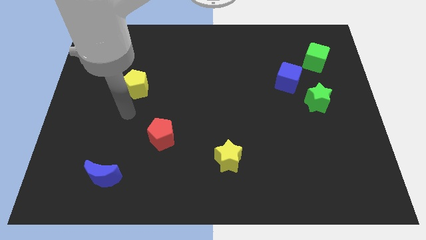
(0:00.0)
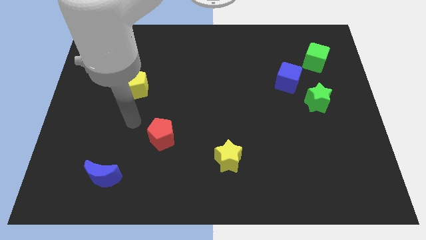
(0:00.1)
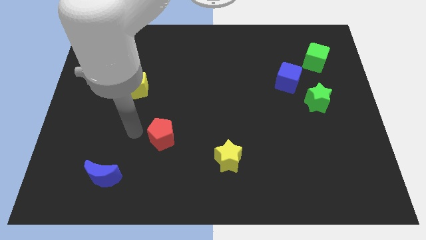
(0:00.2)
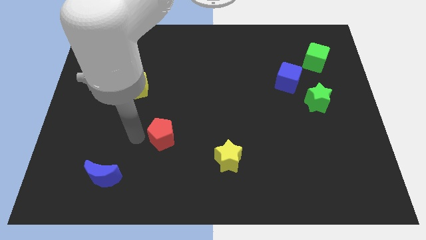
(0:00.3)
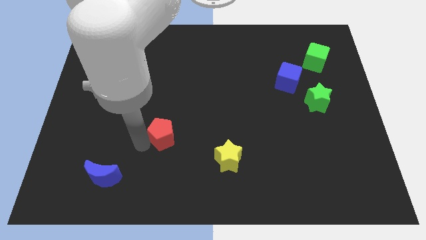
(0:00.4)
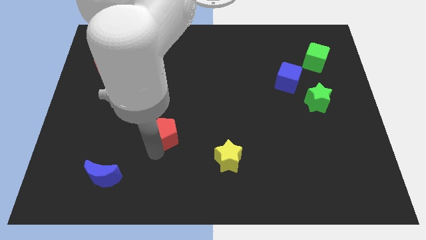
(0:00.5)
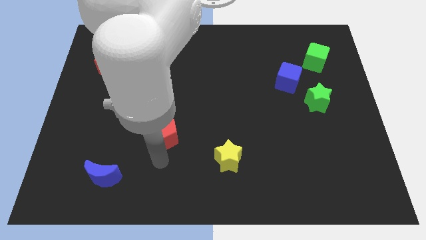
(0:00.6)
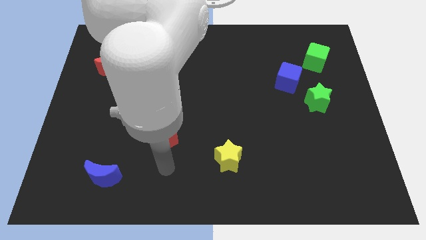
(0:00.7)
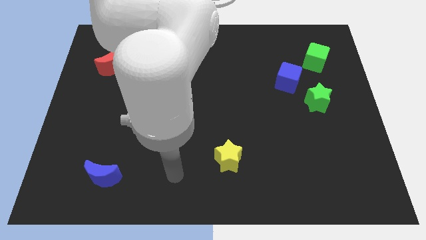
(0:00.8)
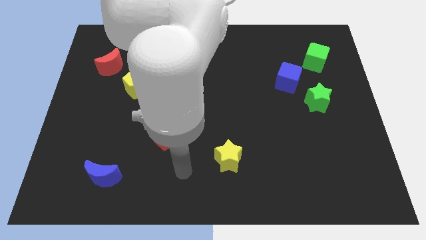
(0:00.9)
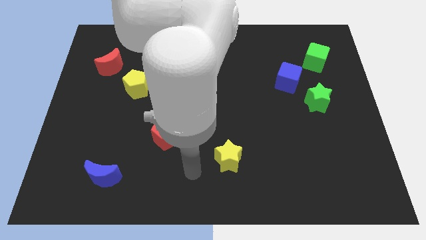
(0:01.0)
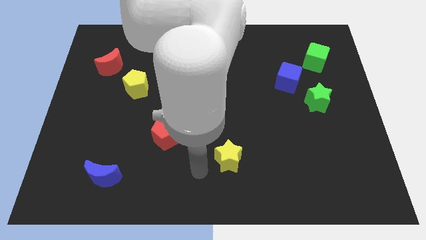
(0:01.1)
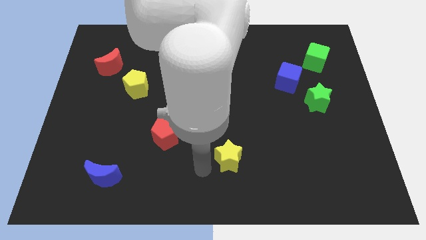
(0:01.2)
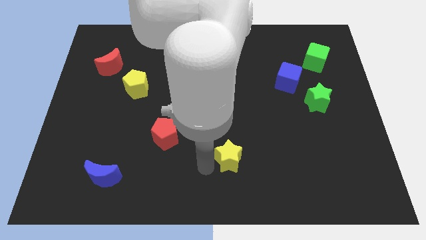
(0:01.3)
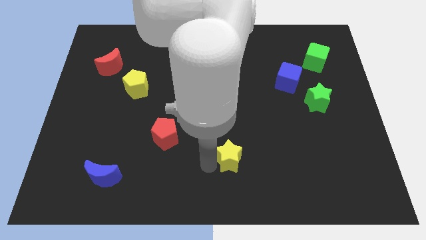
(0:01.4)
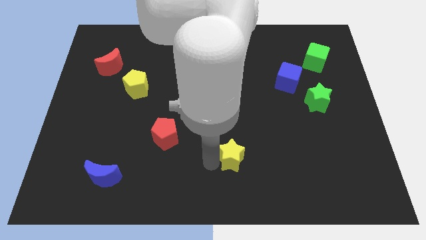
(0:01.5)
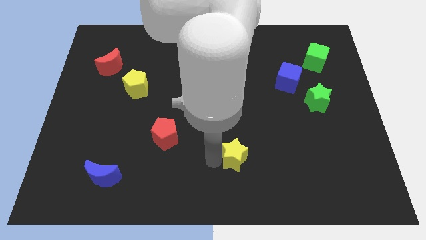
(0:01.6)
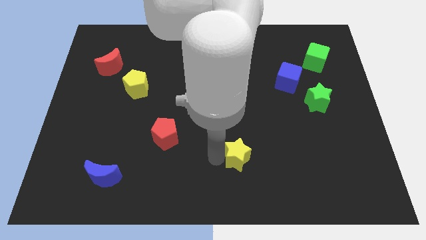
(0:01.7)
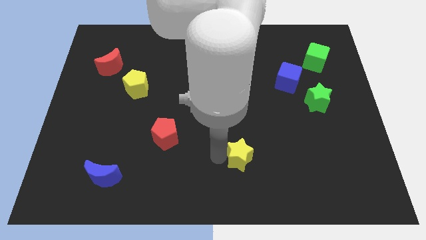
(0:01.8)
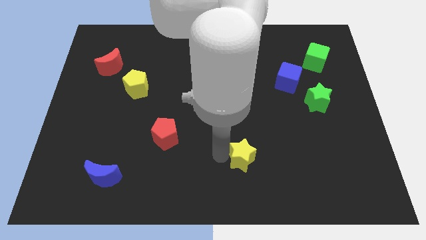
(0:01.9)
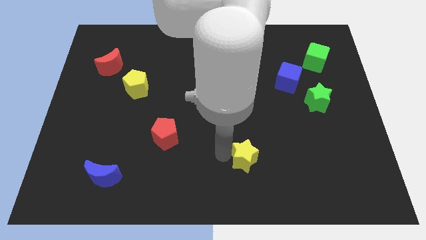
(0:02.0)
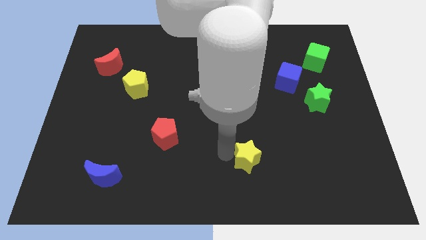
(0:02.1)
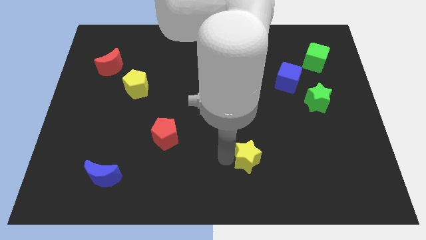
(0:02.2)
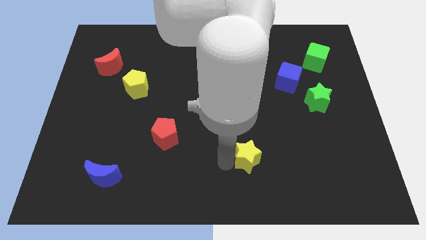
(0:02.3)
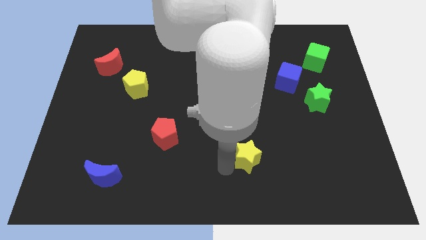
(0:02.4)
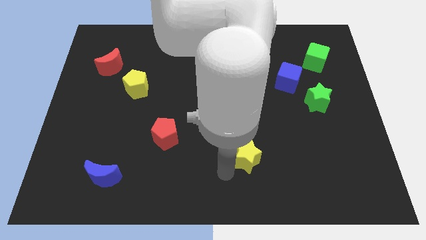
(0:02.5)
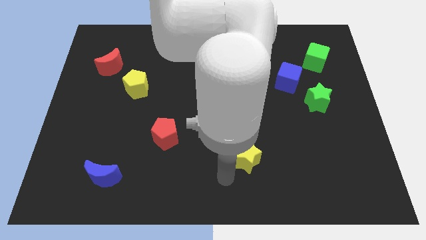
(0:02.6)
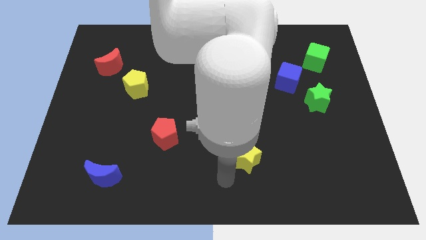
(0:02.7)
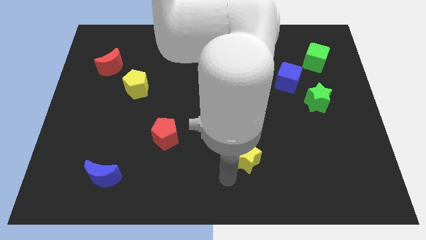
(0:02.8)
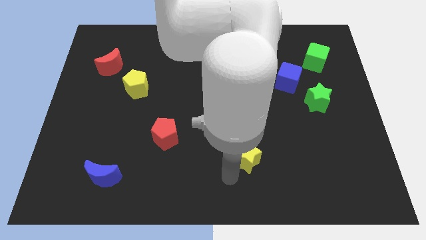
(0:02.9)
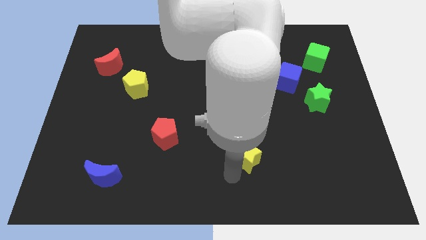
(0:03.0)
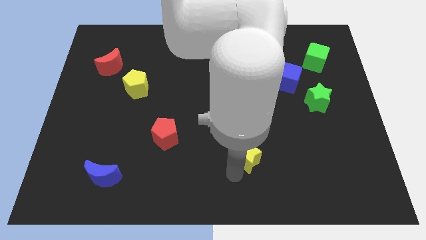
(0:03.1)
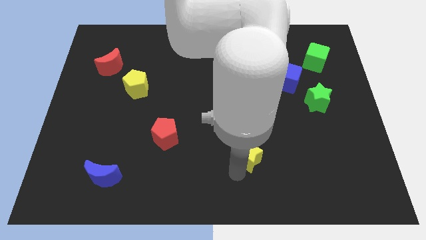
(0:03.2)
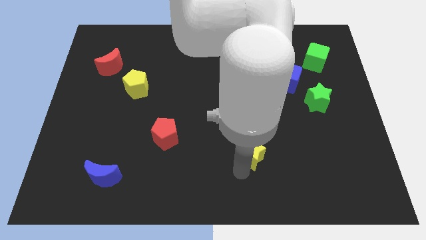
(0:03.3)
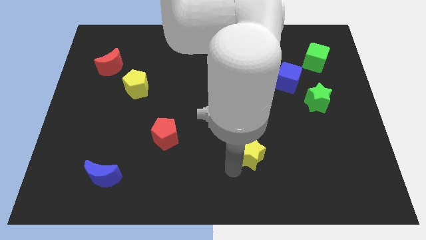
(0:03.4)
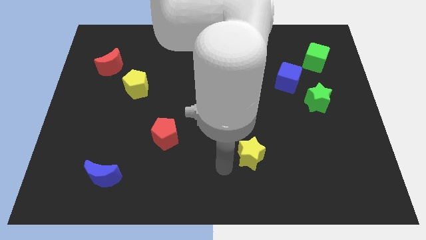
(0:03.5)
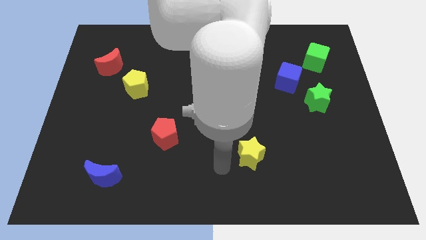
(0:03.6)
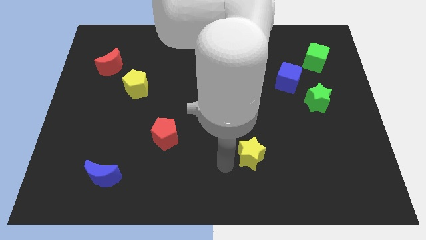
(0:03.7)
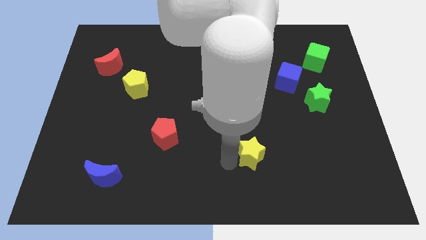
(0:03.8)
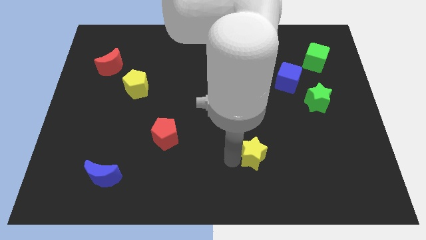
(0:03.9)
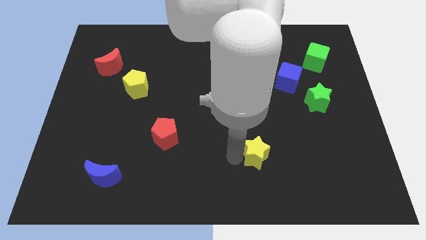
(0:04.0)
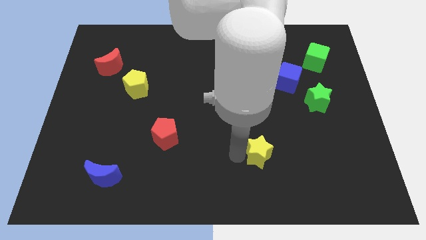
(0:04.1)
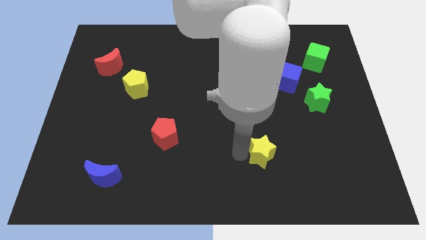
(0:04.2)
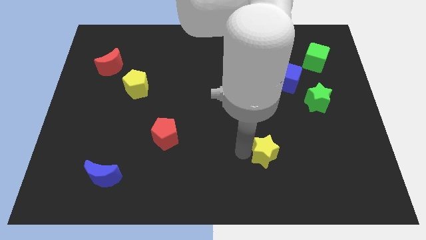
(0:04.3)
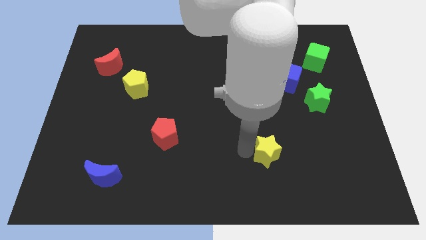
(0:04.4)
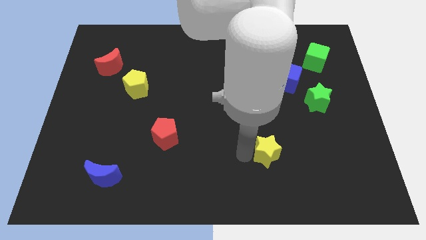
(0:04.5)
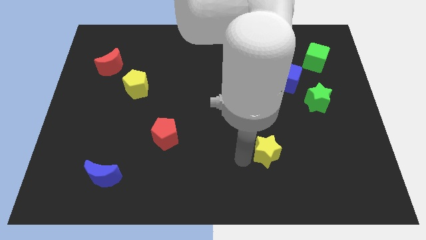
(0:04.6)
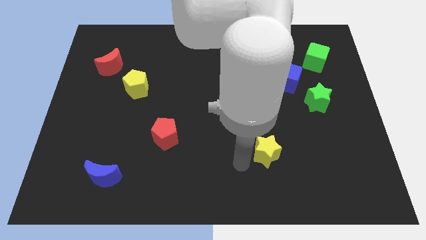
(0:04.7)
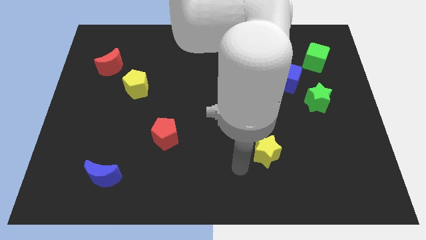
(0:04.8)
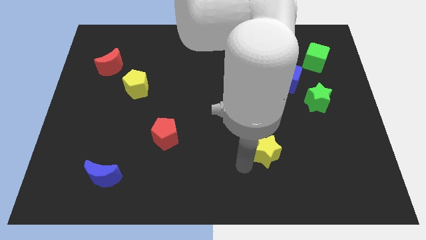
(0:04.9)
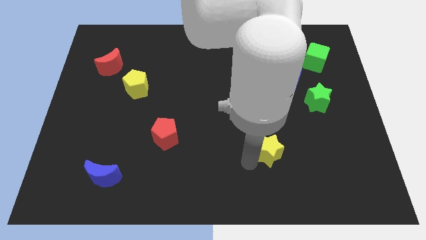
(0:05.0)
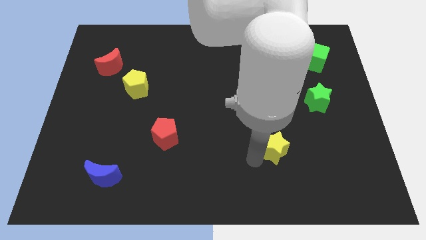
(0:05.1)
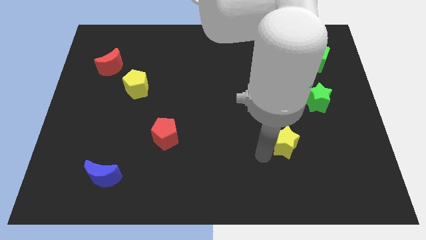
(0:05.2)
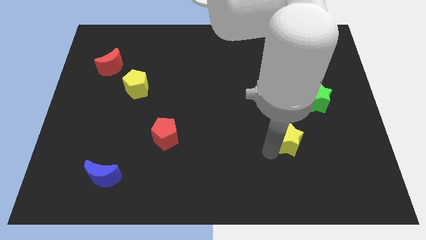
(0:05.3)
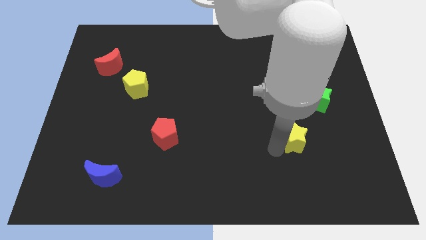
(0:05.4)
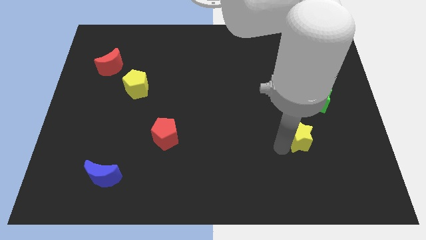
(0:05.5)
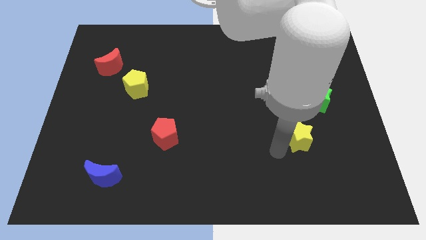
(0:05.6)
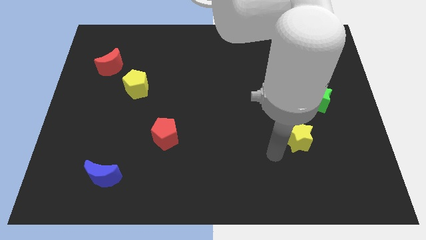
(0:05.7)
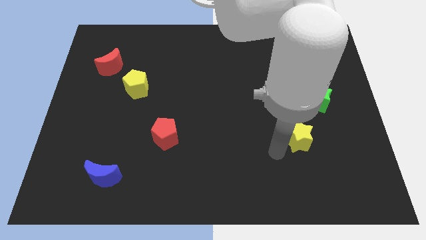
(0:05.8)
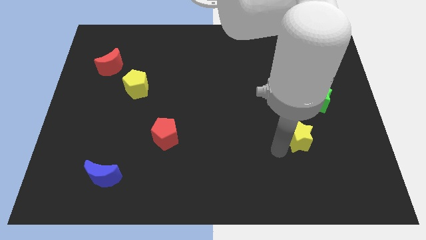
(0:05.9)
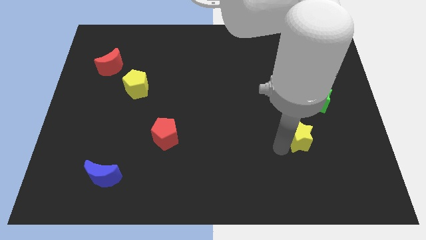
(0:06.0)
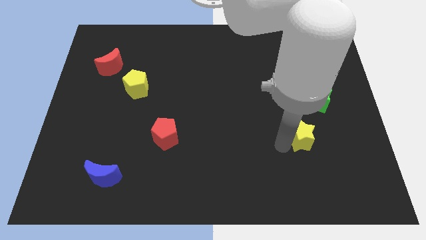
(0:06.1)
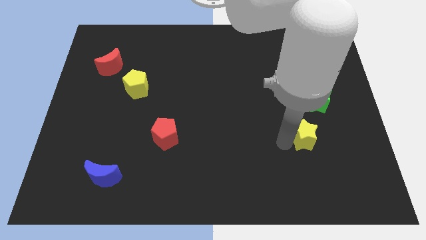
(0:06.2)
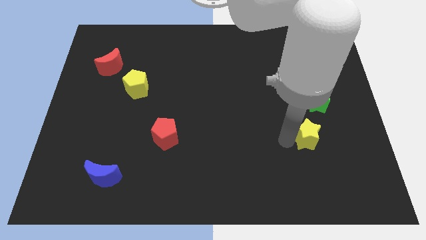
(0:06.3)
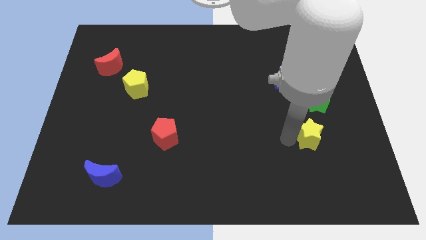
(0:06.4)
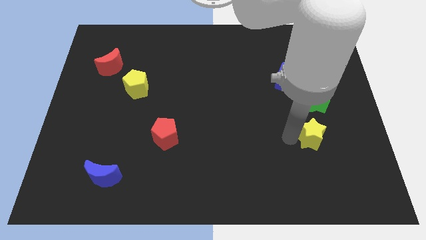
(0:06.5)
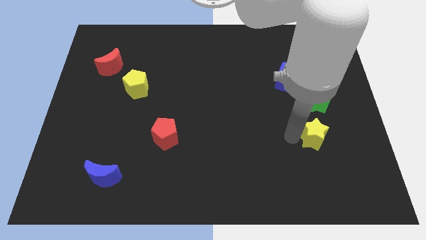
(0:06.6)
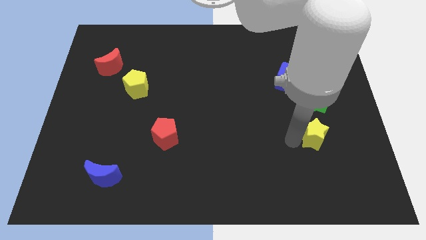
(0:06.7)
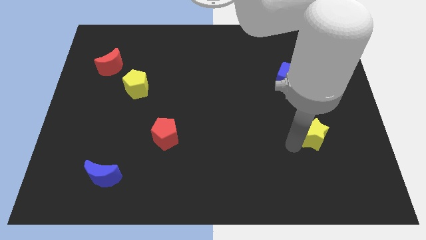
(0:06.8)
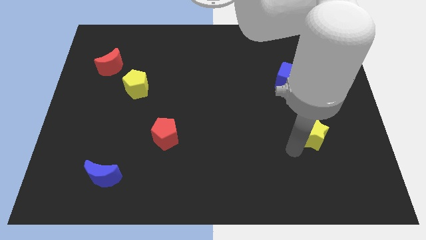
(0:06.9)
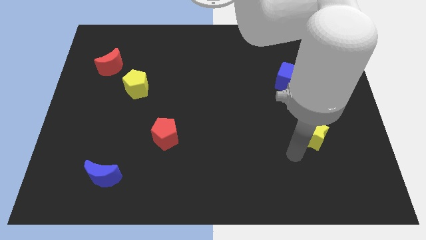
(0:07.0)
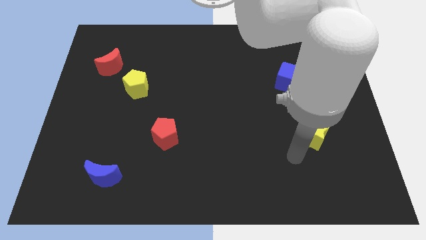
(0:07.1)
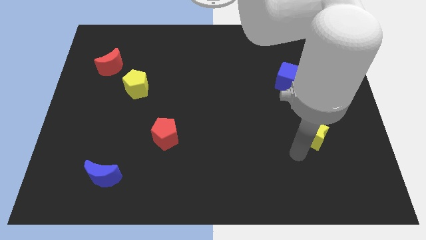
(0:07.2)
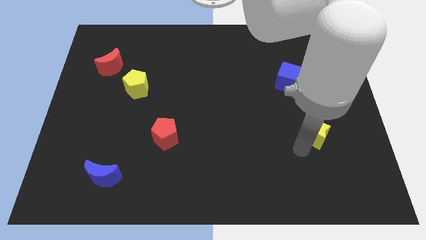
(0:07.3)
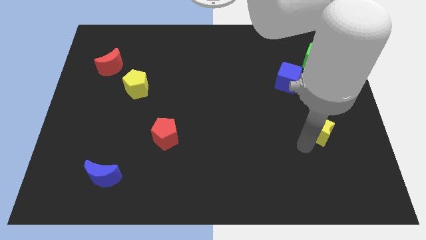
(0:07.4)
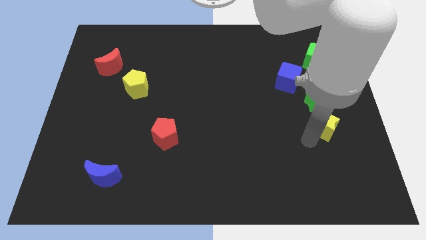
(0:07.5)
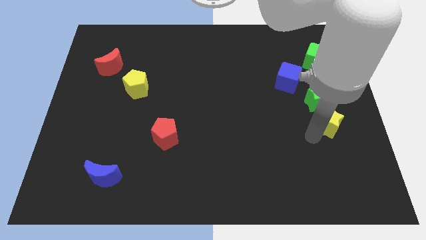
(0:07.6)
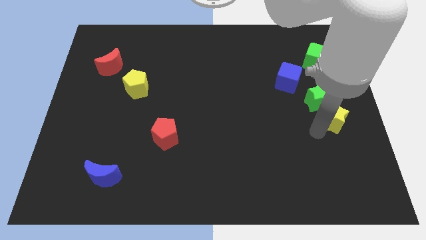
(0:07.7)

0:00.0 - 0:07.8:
move the yellow star to the right side of the board
